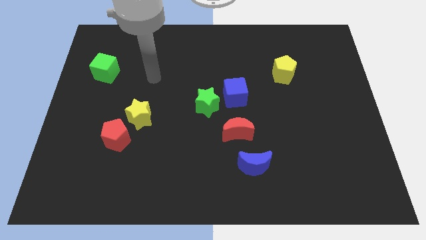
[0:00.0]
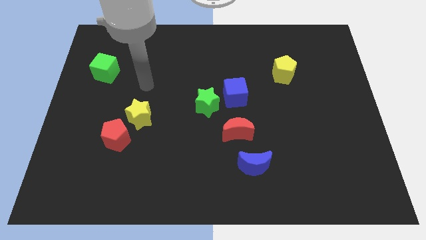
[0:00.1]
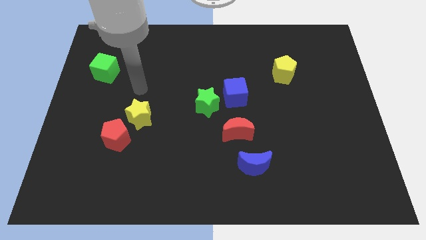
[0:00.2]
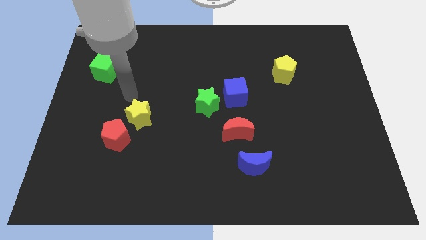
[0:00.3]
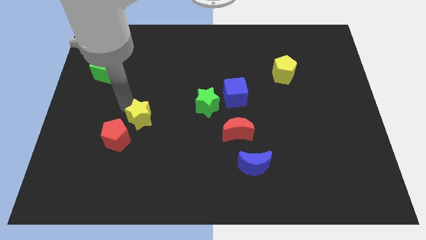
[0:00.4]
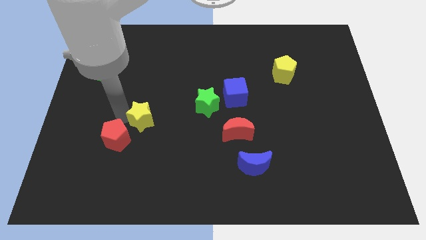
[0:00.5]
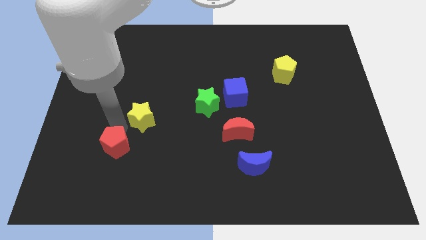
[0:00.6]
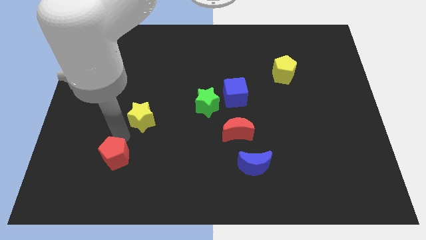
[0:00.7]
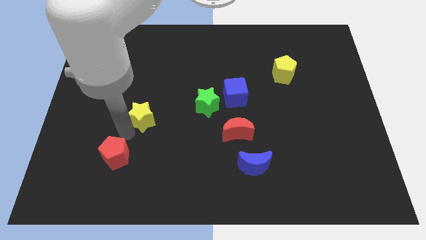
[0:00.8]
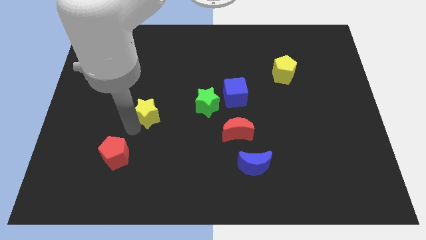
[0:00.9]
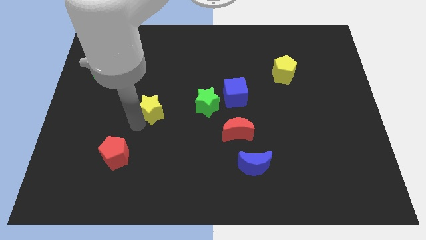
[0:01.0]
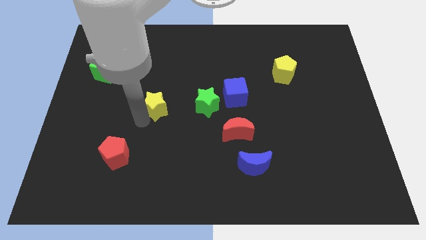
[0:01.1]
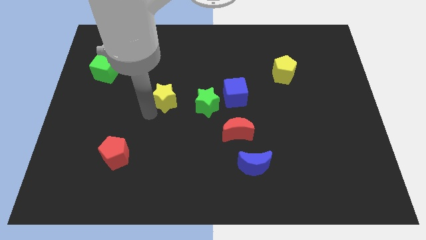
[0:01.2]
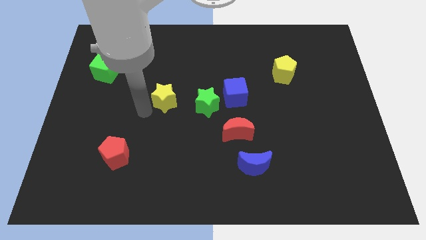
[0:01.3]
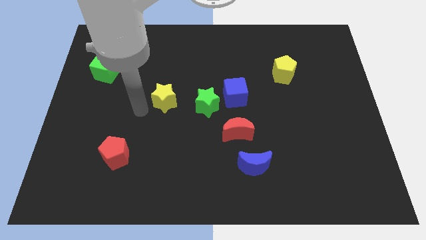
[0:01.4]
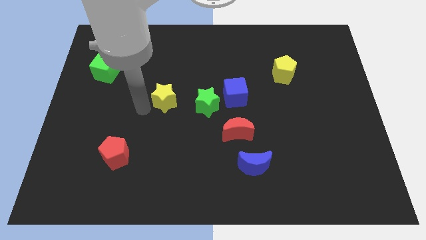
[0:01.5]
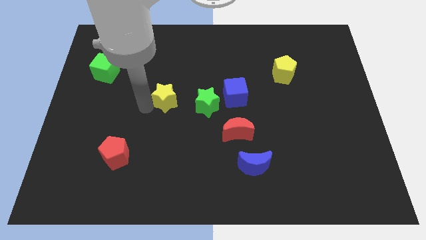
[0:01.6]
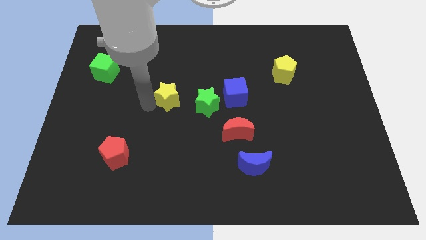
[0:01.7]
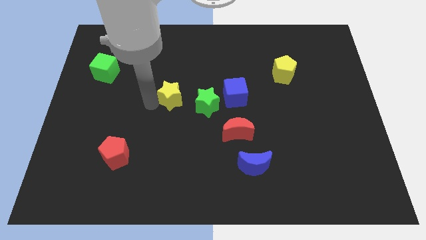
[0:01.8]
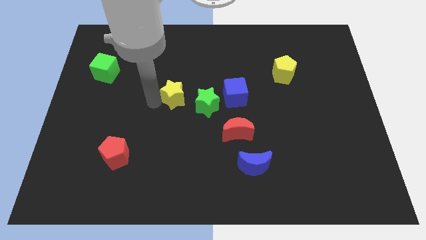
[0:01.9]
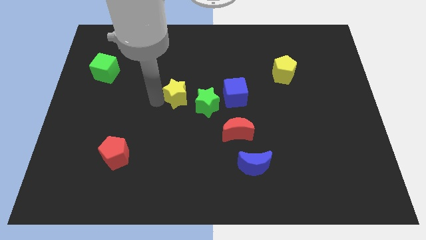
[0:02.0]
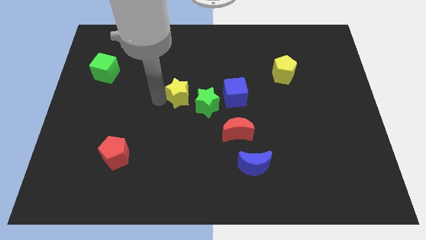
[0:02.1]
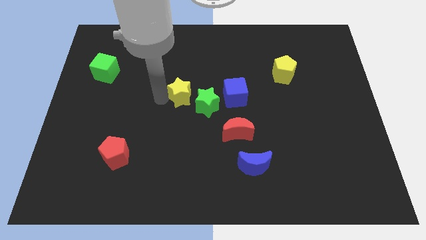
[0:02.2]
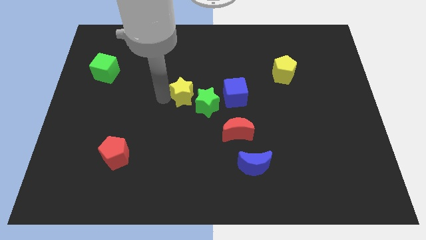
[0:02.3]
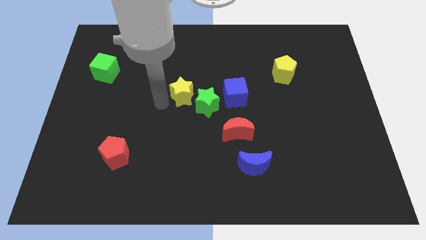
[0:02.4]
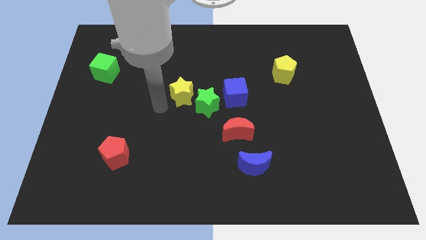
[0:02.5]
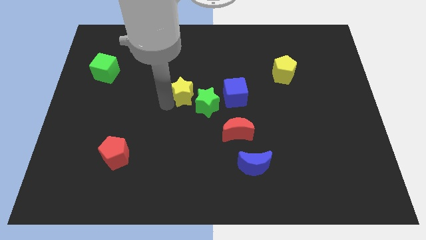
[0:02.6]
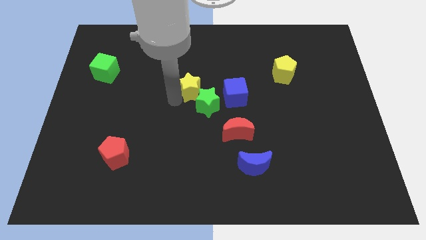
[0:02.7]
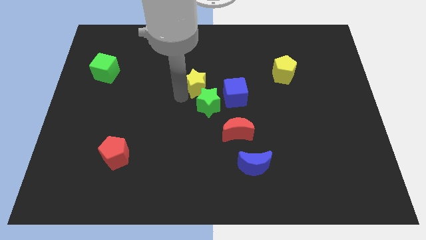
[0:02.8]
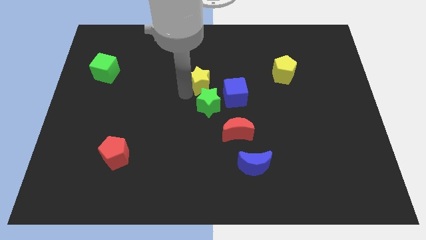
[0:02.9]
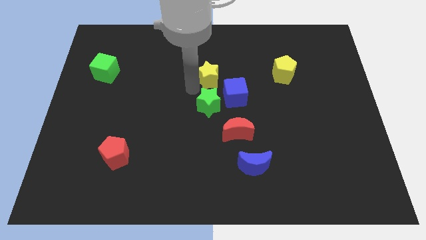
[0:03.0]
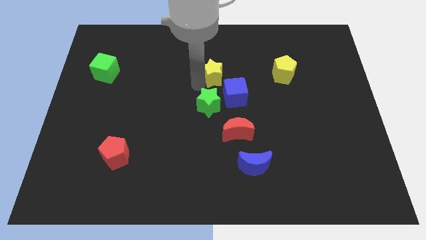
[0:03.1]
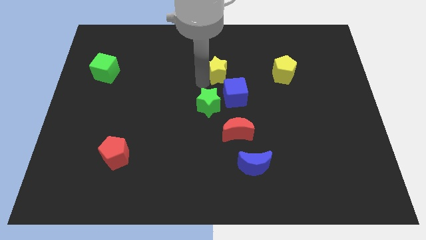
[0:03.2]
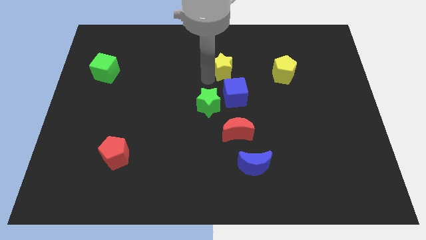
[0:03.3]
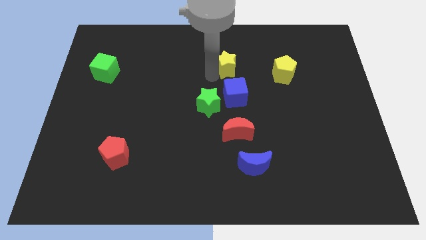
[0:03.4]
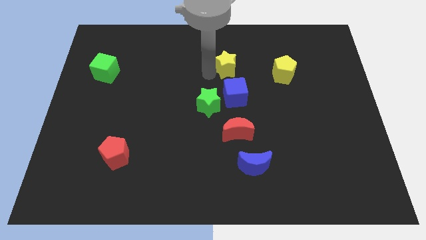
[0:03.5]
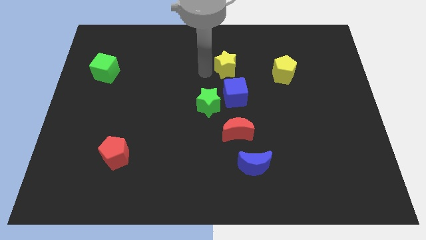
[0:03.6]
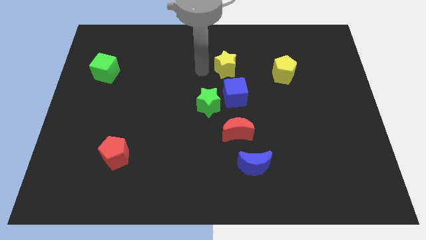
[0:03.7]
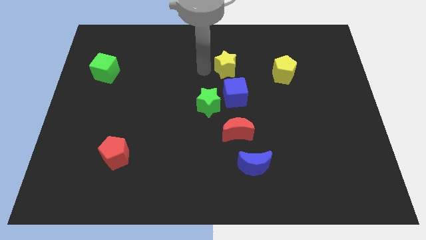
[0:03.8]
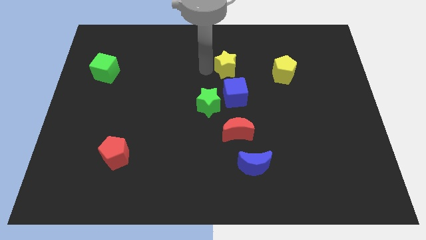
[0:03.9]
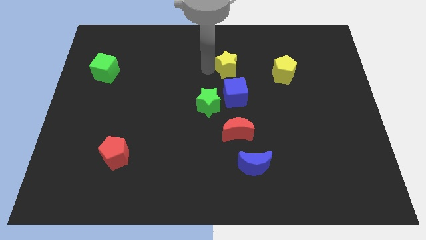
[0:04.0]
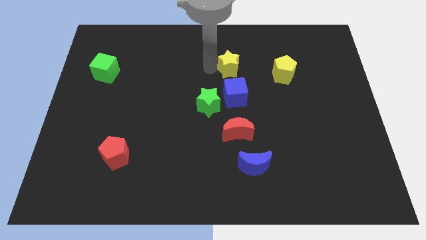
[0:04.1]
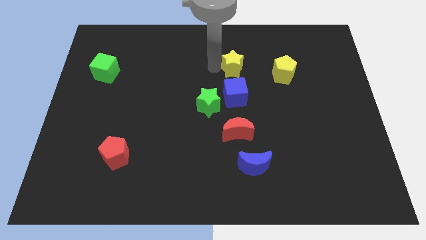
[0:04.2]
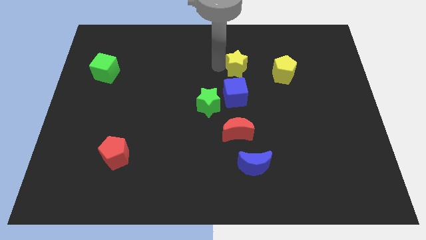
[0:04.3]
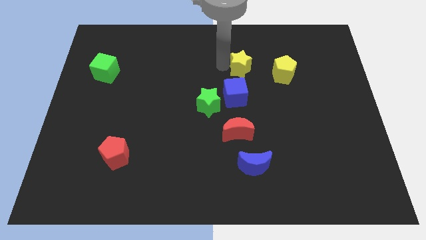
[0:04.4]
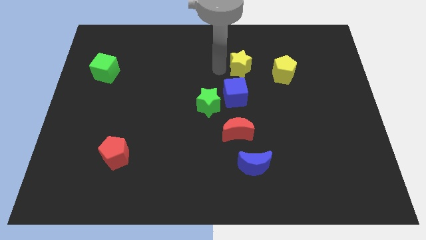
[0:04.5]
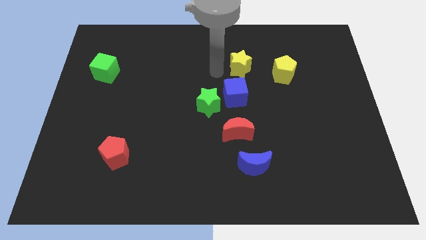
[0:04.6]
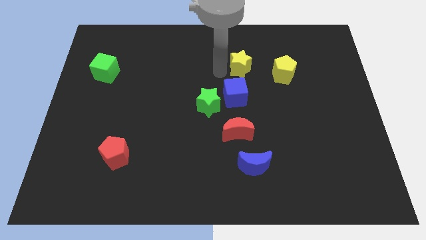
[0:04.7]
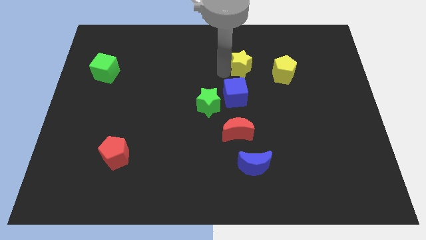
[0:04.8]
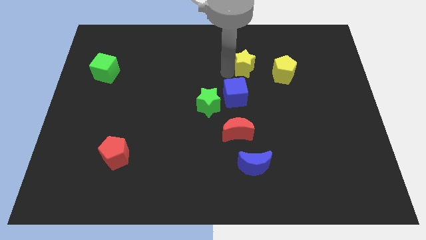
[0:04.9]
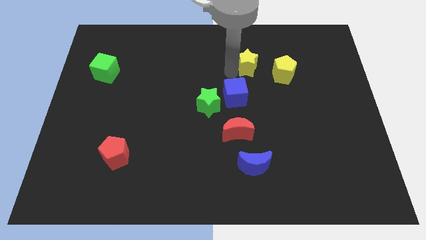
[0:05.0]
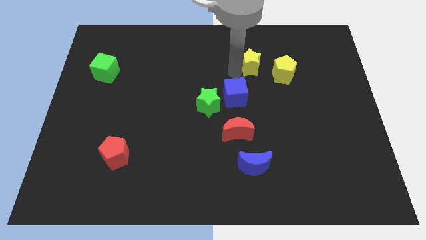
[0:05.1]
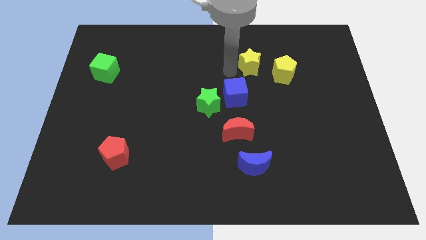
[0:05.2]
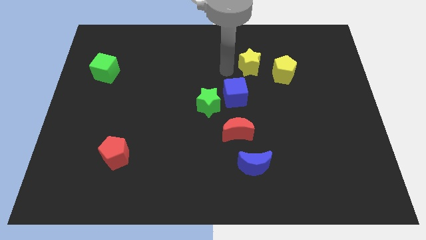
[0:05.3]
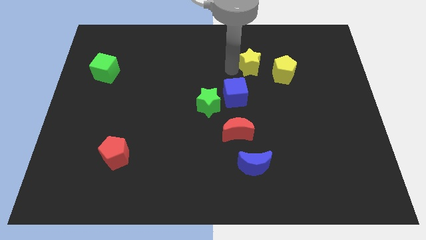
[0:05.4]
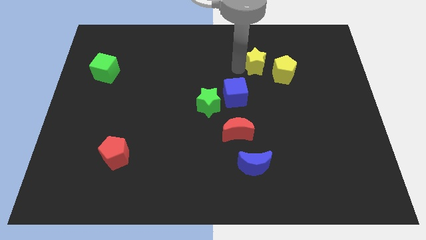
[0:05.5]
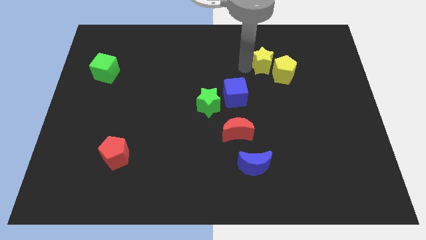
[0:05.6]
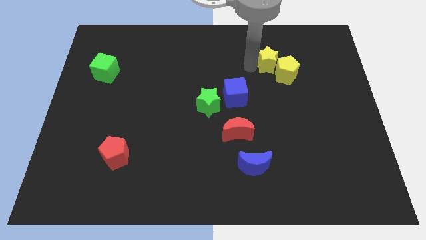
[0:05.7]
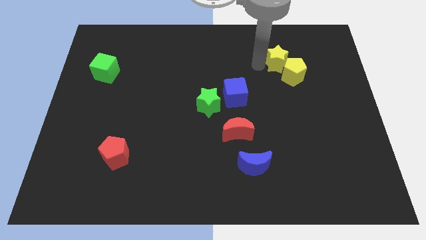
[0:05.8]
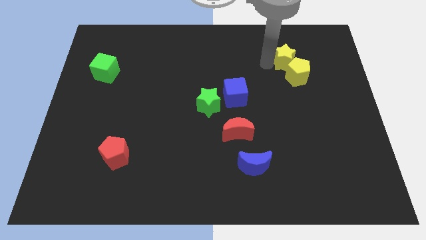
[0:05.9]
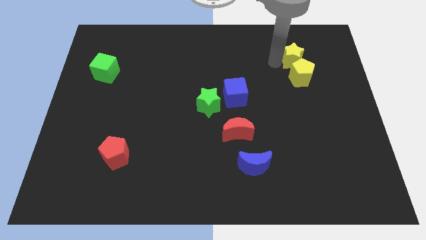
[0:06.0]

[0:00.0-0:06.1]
slide the yellow star to the top right side of the yellow pentagon

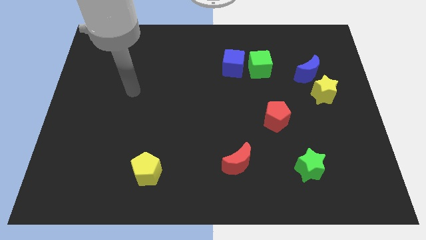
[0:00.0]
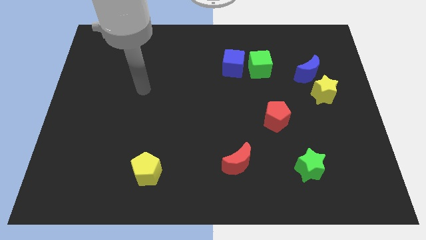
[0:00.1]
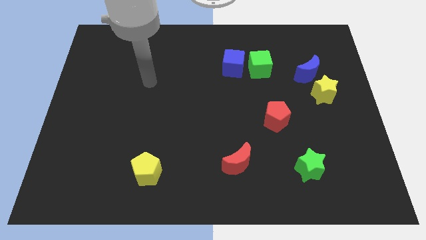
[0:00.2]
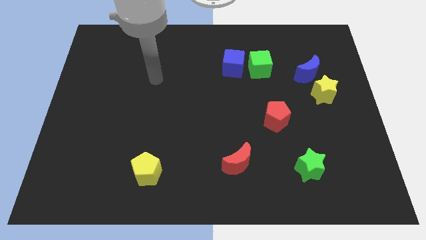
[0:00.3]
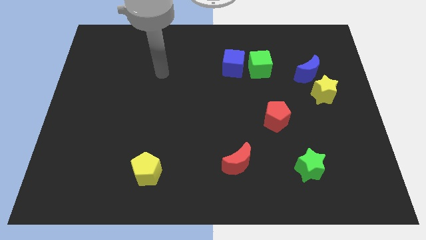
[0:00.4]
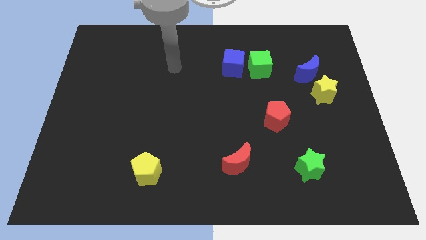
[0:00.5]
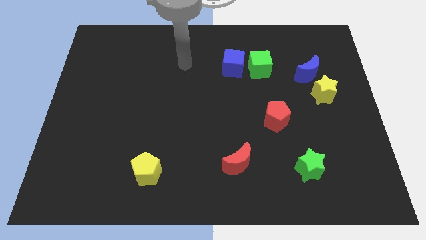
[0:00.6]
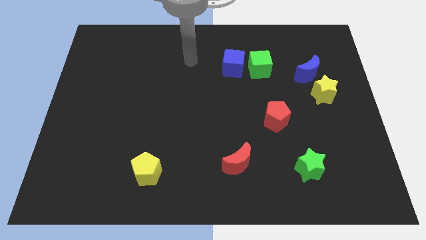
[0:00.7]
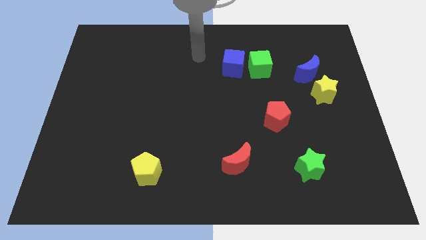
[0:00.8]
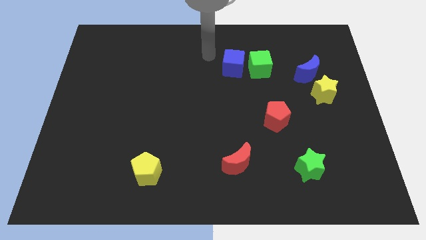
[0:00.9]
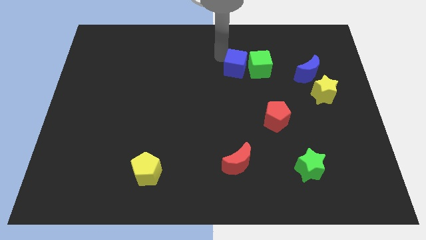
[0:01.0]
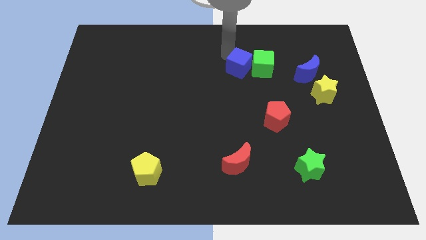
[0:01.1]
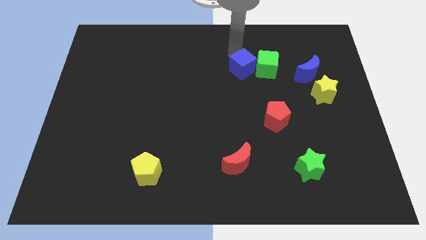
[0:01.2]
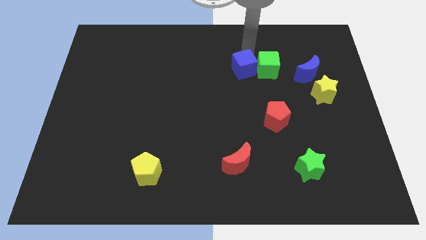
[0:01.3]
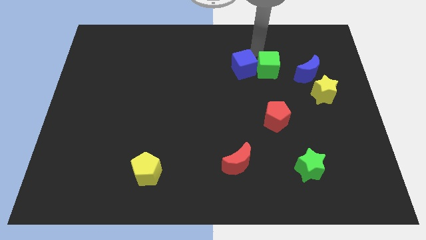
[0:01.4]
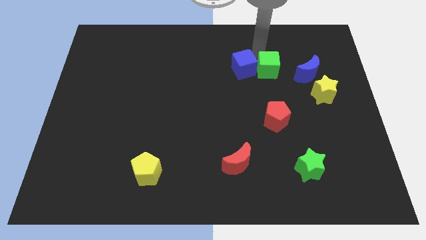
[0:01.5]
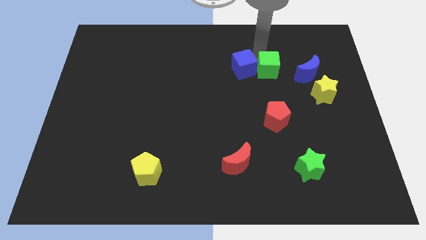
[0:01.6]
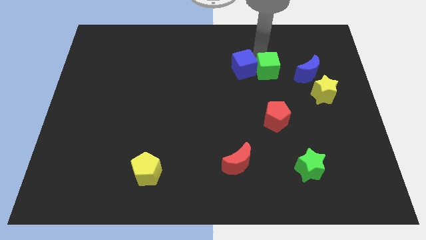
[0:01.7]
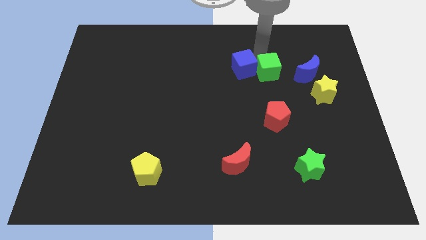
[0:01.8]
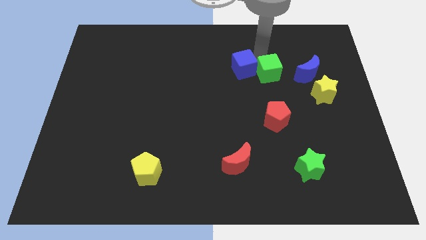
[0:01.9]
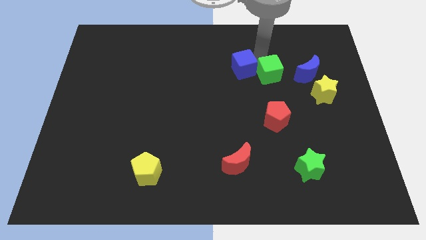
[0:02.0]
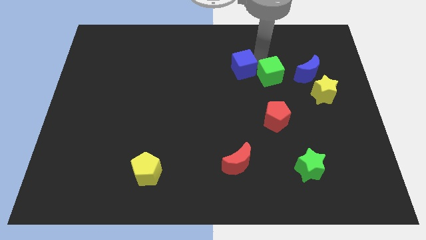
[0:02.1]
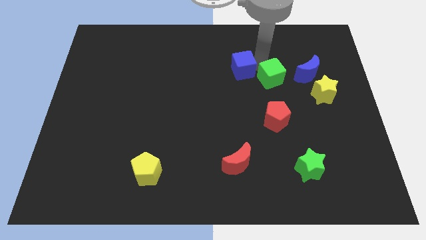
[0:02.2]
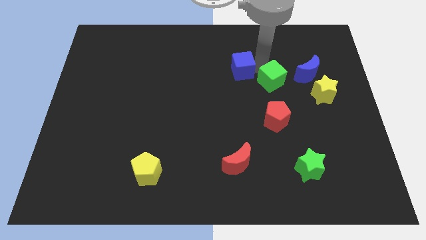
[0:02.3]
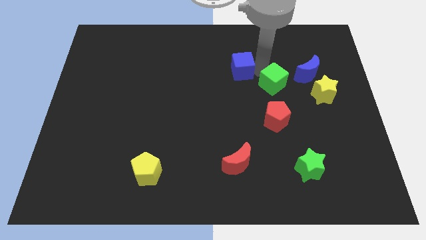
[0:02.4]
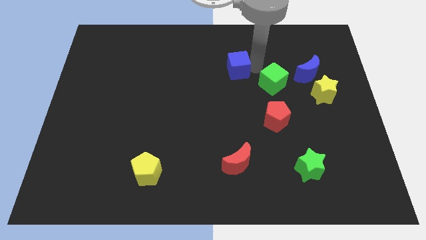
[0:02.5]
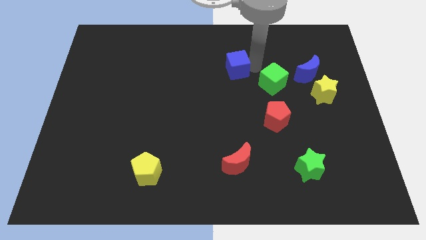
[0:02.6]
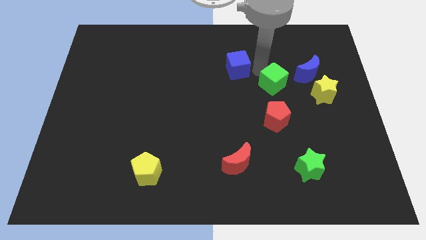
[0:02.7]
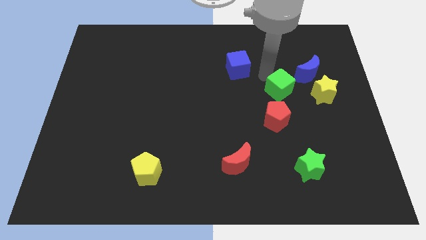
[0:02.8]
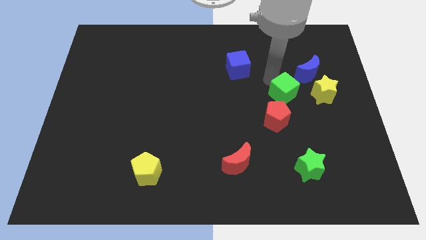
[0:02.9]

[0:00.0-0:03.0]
move the green cube diagonally up and to the right of the red pentagon
